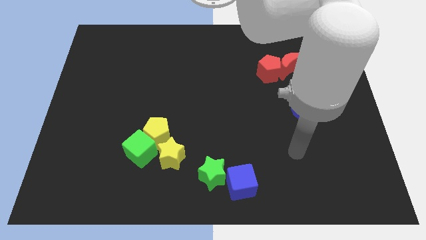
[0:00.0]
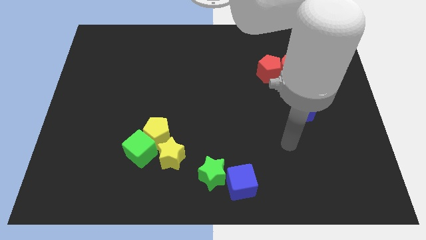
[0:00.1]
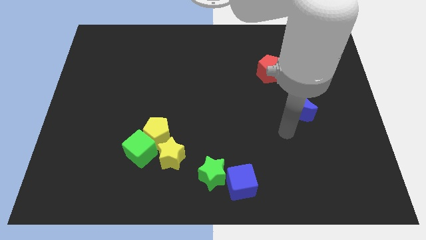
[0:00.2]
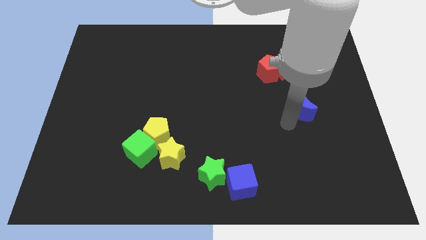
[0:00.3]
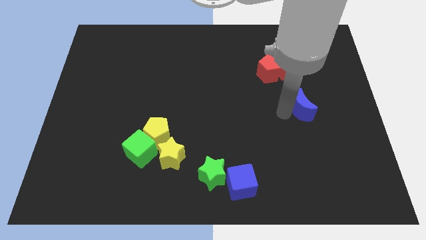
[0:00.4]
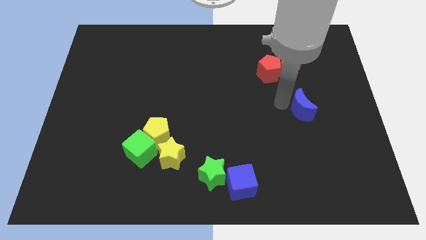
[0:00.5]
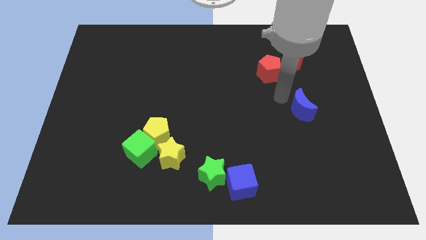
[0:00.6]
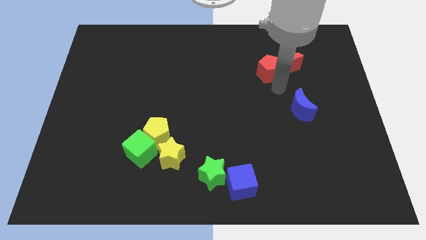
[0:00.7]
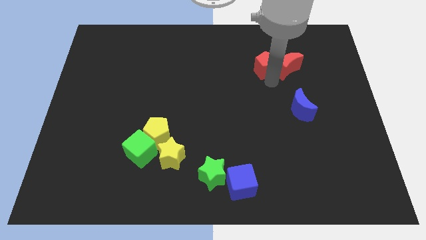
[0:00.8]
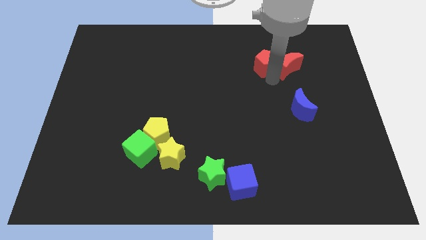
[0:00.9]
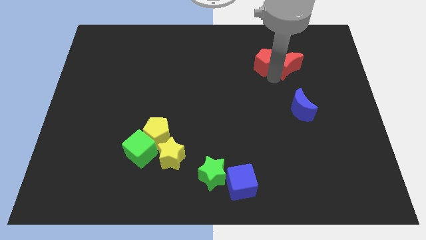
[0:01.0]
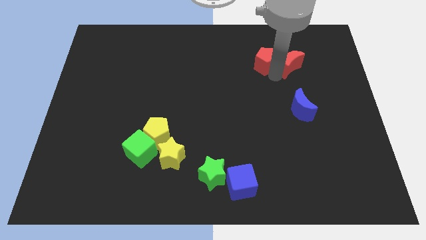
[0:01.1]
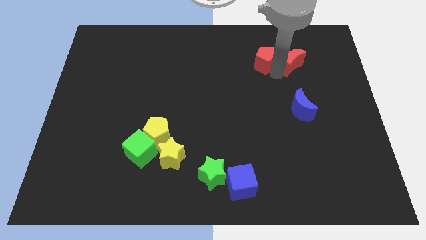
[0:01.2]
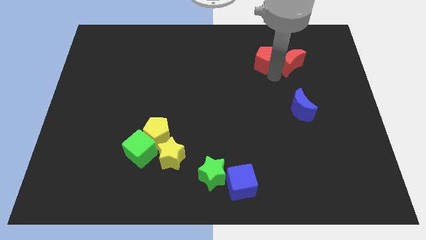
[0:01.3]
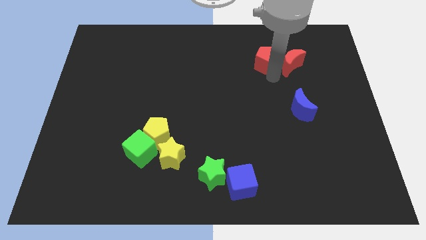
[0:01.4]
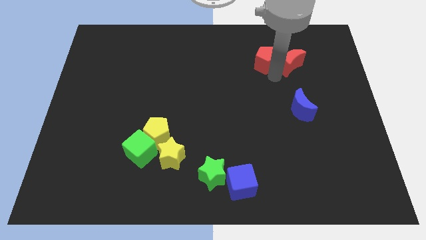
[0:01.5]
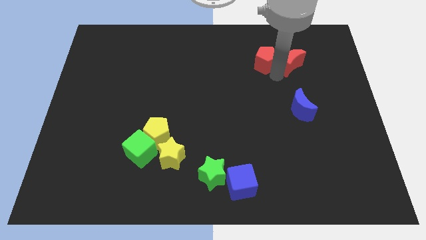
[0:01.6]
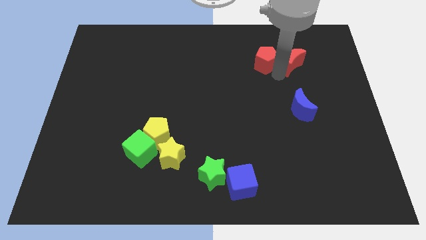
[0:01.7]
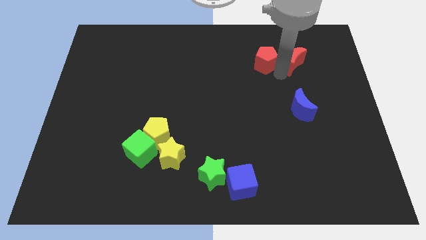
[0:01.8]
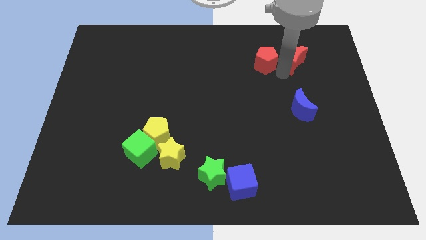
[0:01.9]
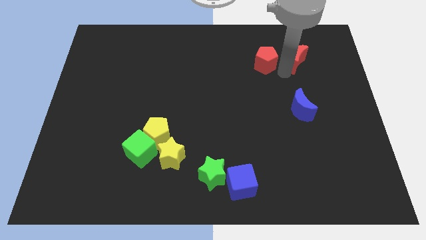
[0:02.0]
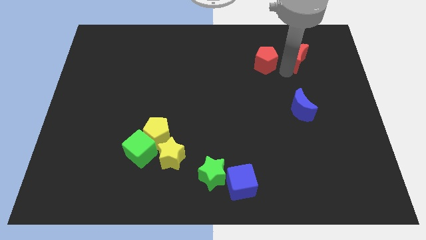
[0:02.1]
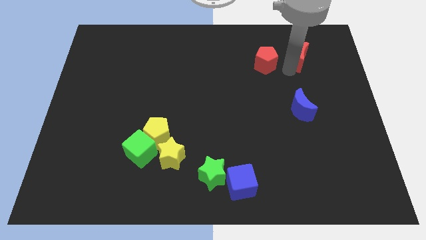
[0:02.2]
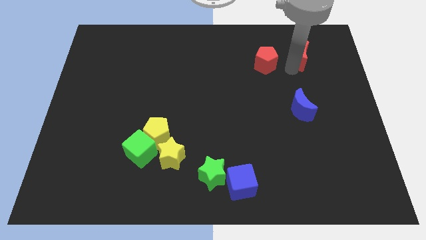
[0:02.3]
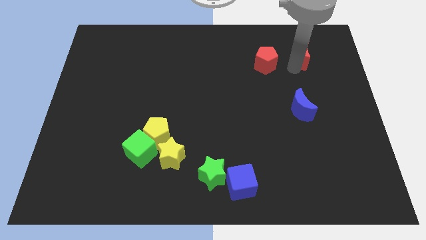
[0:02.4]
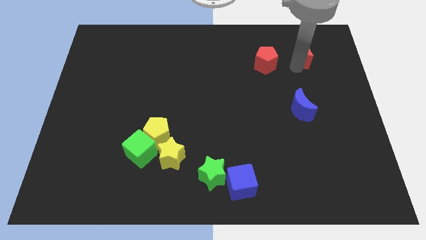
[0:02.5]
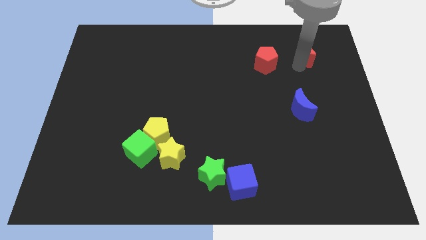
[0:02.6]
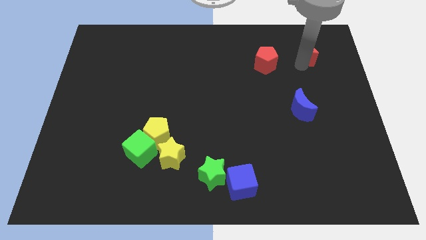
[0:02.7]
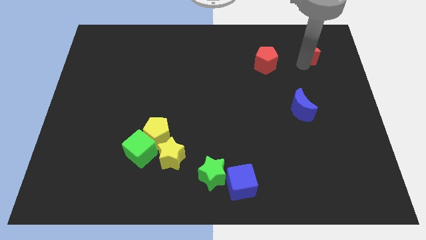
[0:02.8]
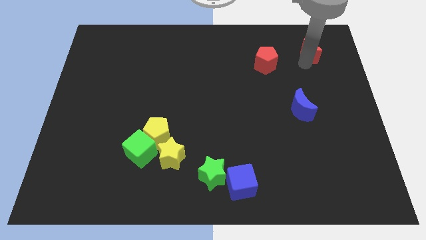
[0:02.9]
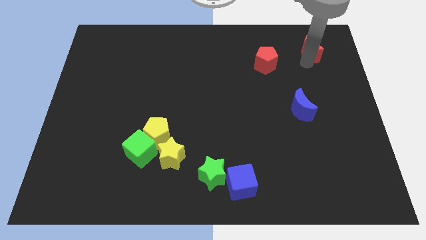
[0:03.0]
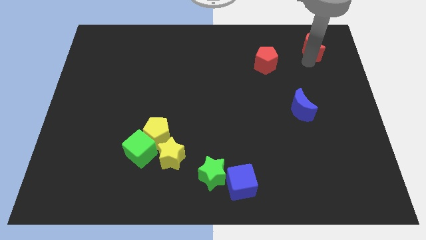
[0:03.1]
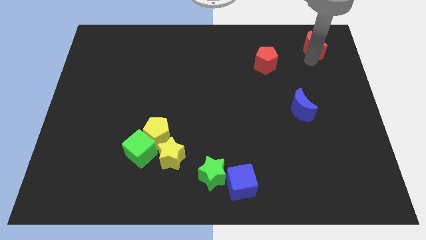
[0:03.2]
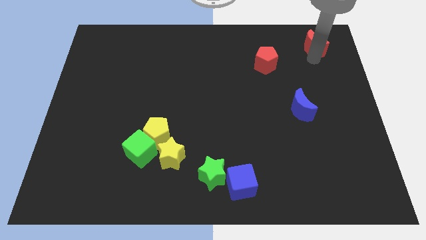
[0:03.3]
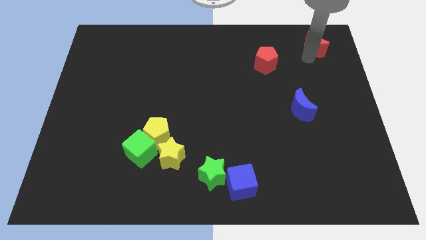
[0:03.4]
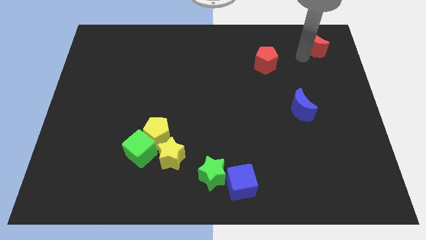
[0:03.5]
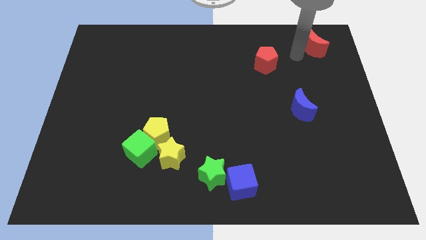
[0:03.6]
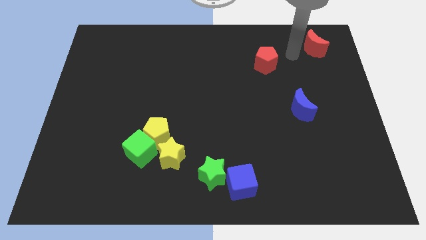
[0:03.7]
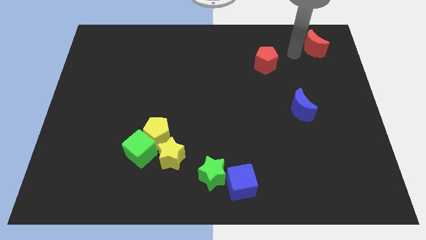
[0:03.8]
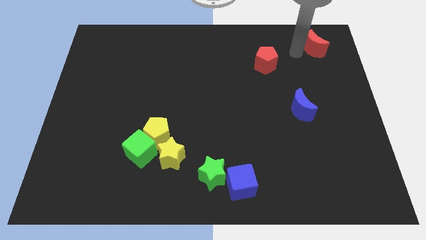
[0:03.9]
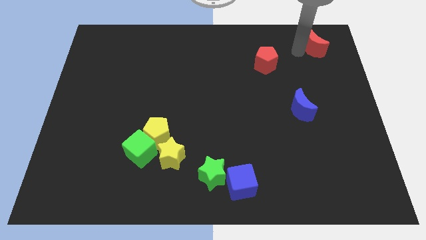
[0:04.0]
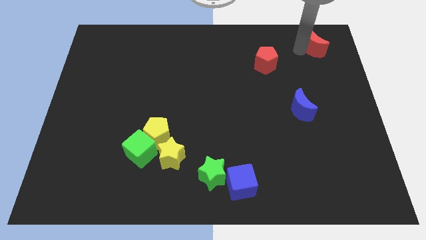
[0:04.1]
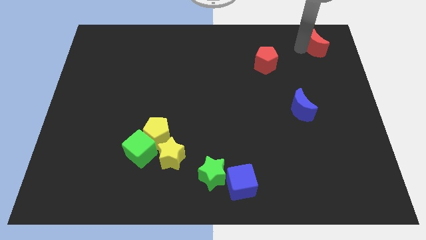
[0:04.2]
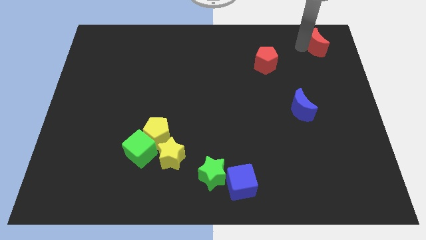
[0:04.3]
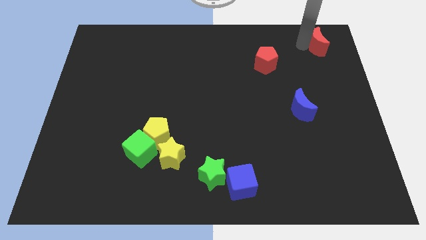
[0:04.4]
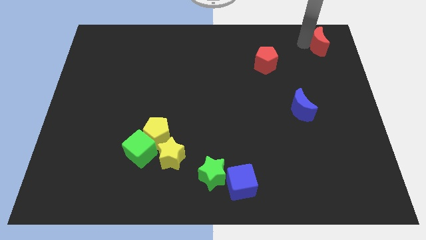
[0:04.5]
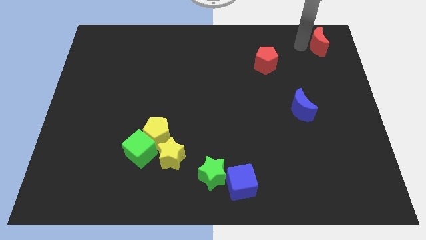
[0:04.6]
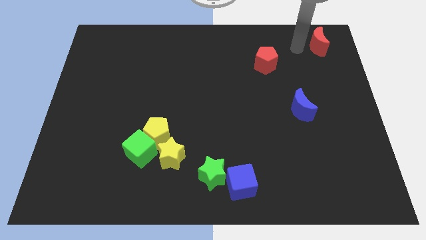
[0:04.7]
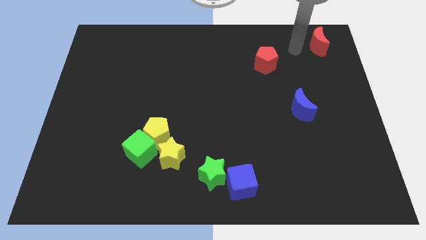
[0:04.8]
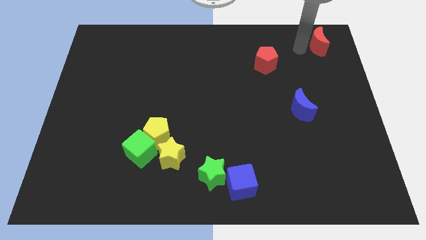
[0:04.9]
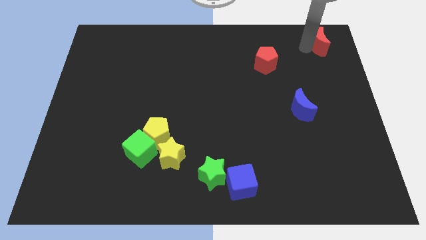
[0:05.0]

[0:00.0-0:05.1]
slide the red moon to the upper right corner

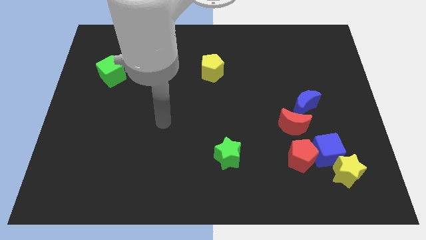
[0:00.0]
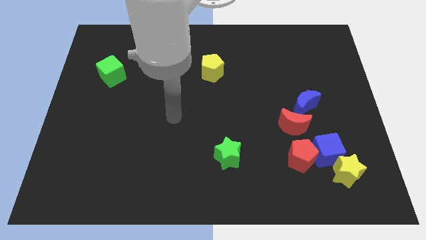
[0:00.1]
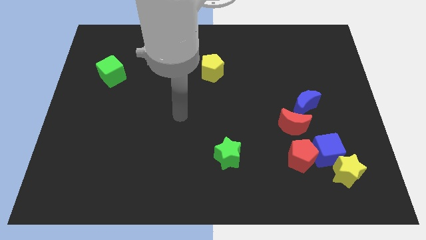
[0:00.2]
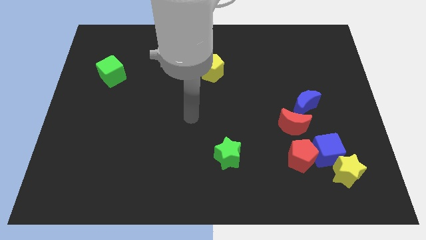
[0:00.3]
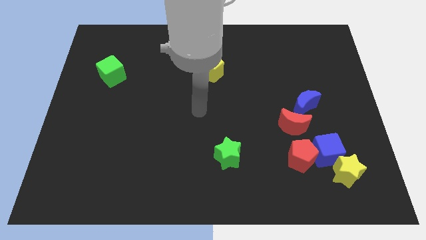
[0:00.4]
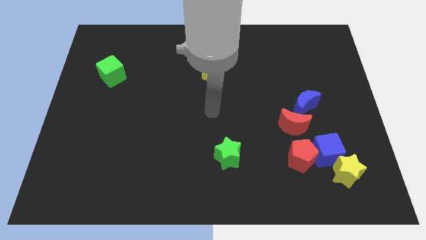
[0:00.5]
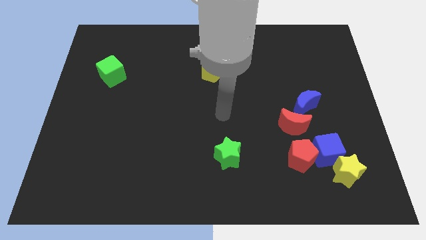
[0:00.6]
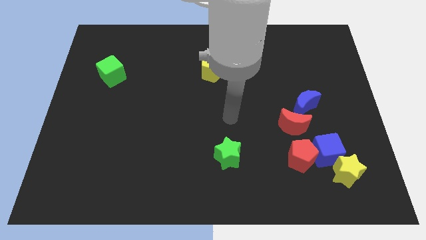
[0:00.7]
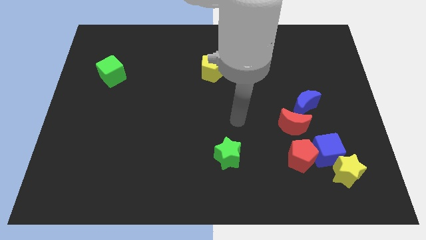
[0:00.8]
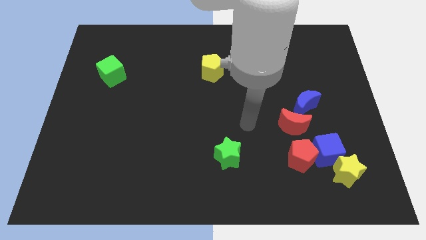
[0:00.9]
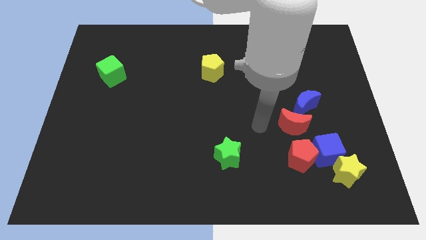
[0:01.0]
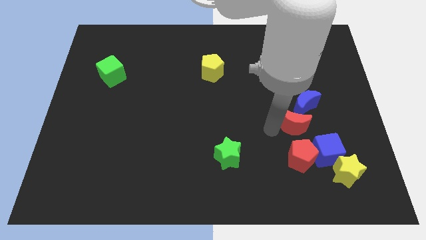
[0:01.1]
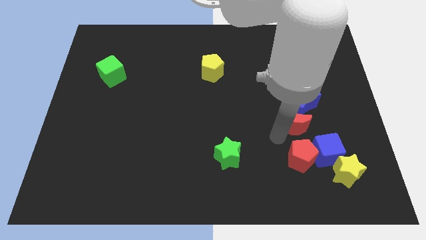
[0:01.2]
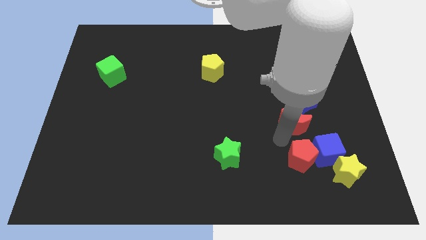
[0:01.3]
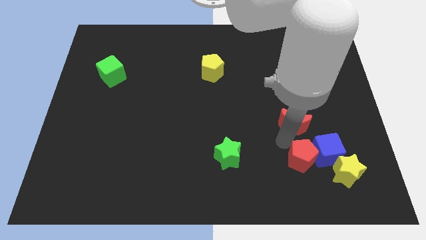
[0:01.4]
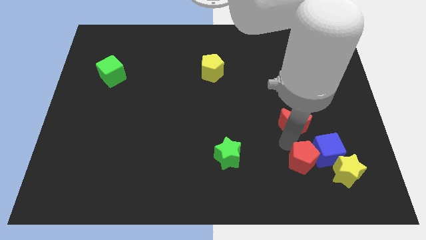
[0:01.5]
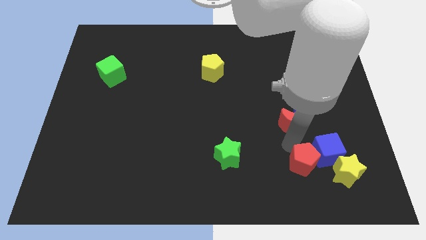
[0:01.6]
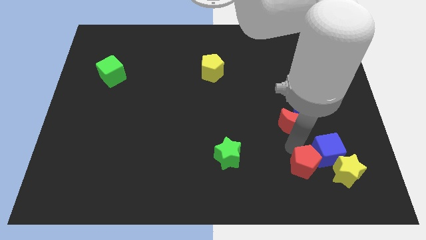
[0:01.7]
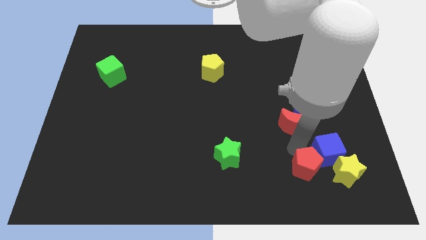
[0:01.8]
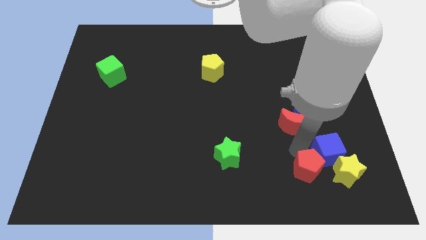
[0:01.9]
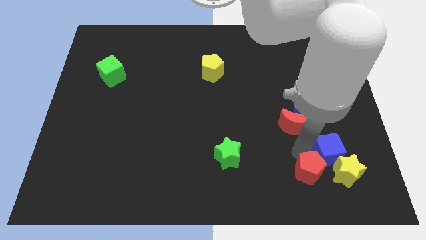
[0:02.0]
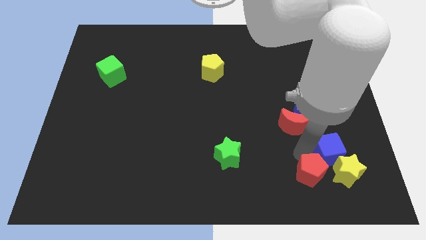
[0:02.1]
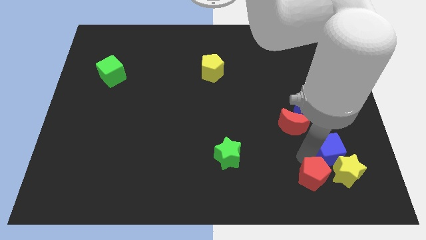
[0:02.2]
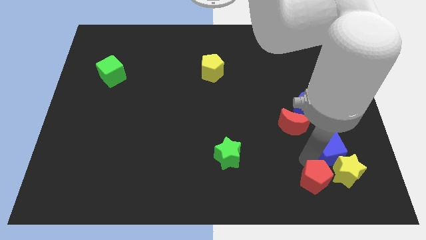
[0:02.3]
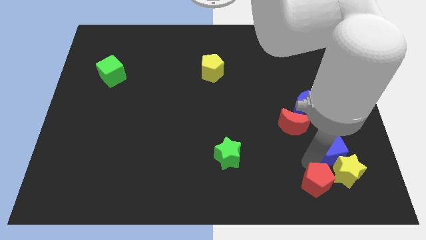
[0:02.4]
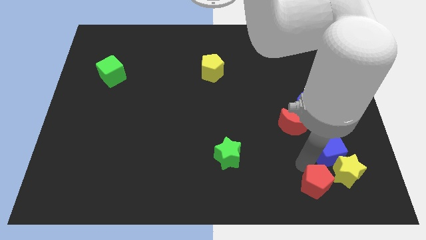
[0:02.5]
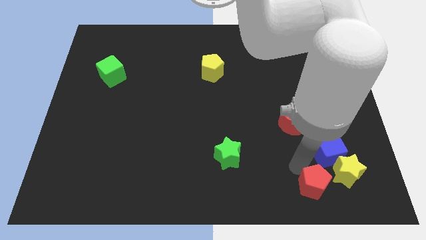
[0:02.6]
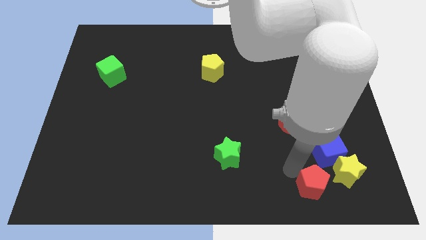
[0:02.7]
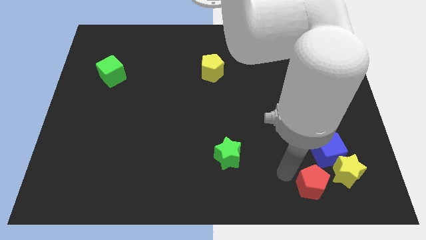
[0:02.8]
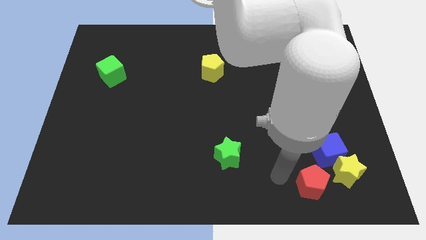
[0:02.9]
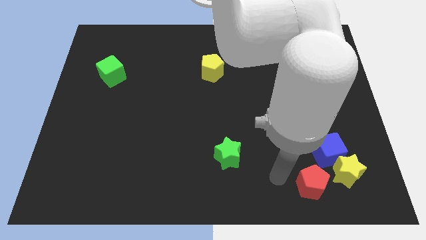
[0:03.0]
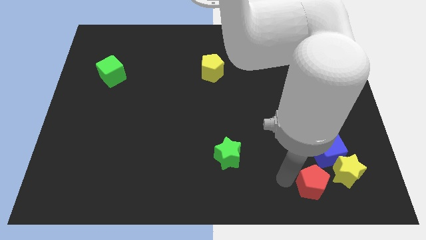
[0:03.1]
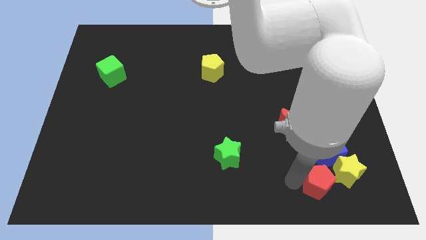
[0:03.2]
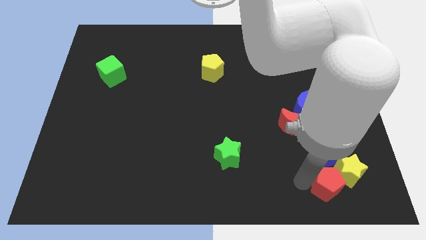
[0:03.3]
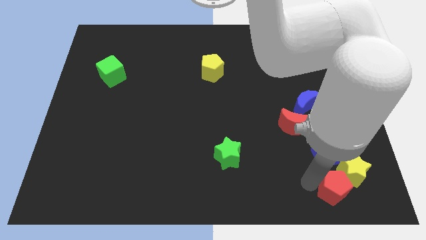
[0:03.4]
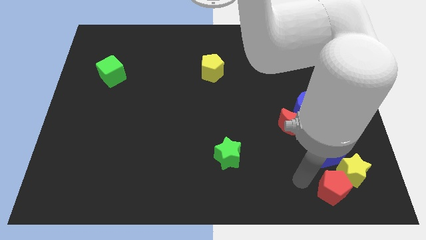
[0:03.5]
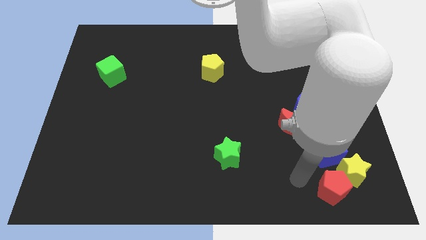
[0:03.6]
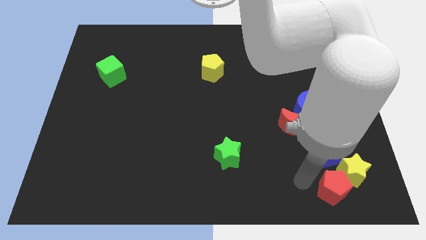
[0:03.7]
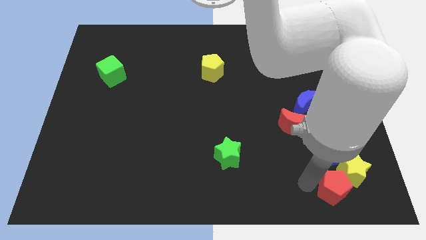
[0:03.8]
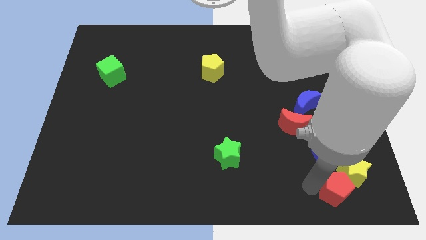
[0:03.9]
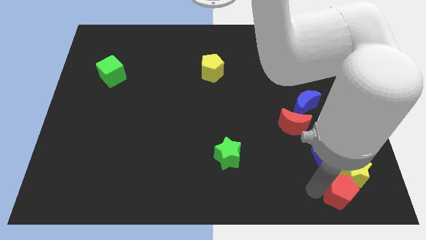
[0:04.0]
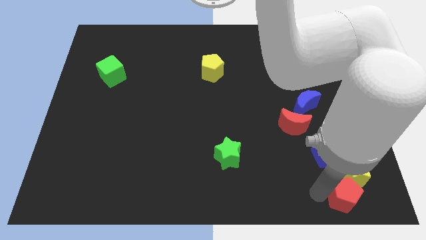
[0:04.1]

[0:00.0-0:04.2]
slide the red pentagon to the lower right corner
